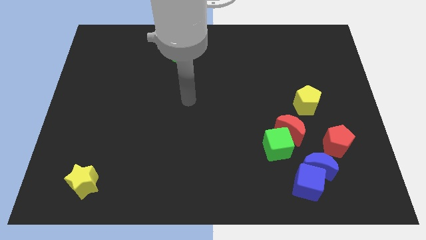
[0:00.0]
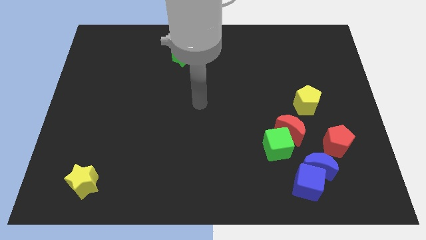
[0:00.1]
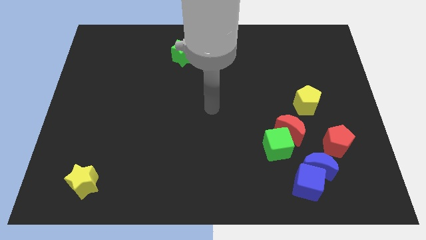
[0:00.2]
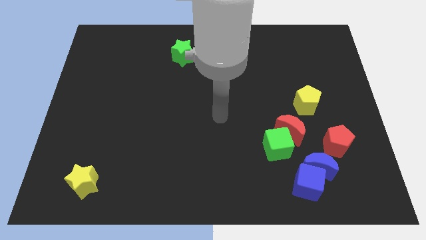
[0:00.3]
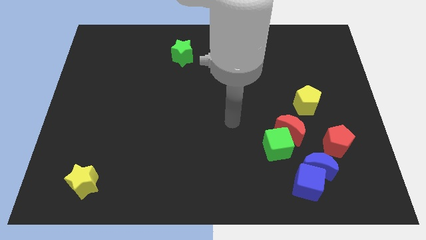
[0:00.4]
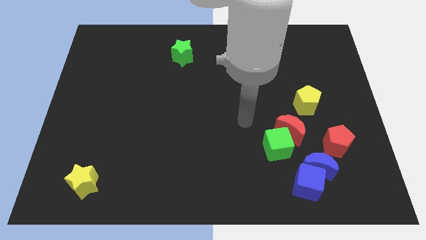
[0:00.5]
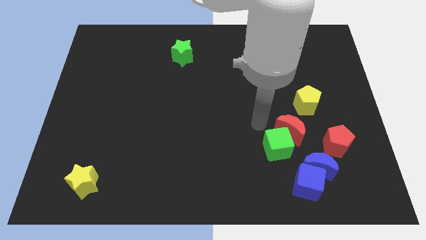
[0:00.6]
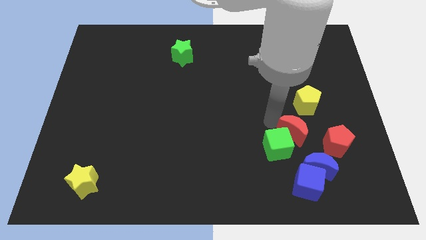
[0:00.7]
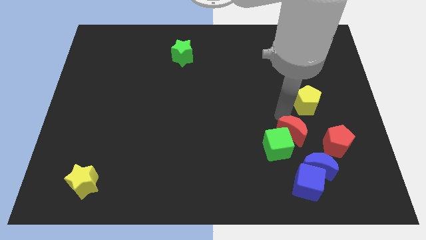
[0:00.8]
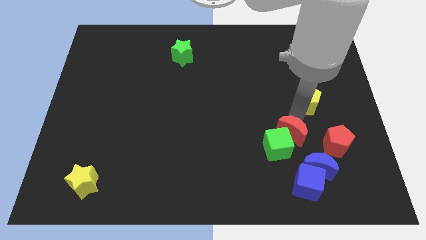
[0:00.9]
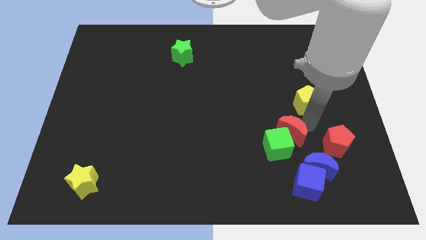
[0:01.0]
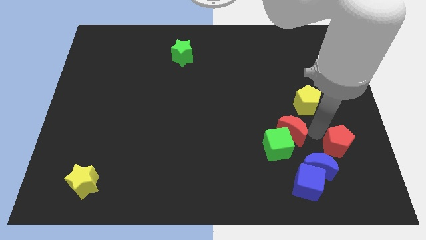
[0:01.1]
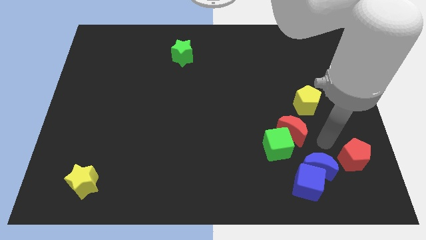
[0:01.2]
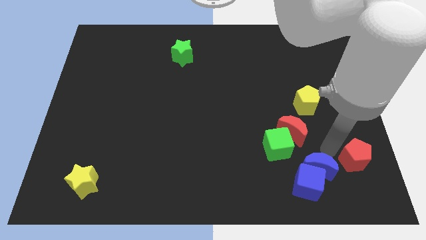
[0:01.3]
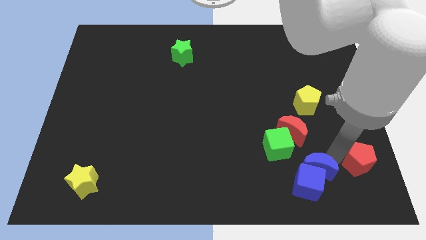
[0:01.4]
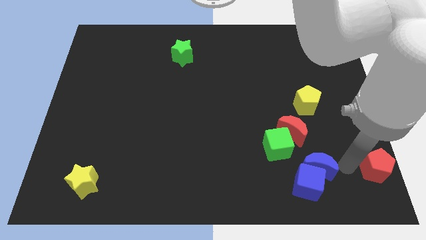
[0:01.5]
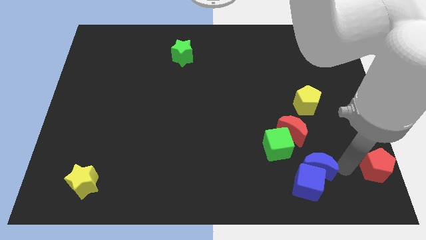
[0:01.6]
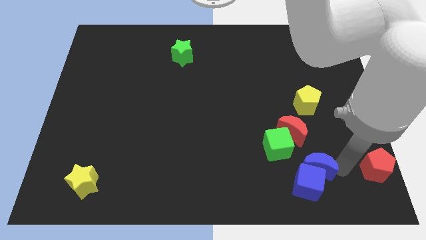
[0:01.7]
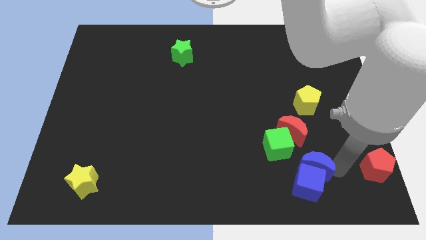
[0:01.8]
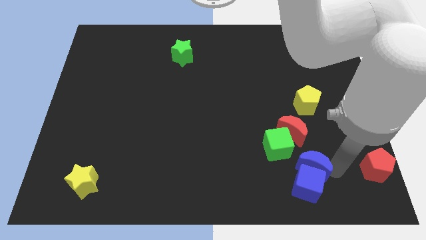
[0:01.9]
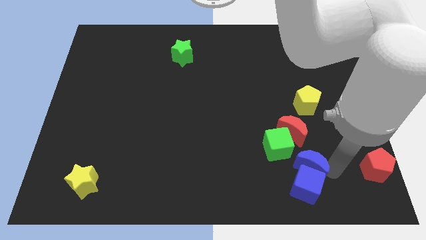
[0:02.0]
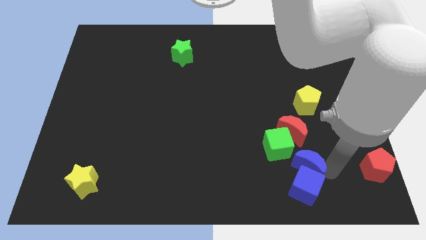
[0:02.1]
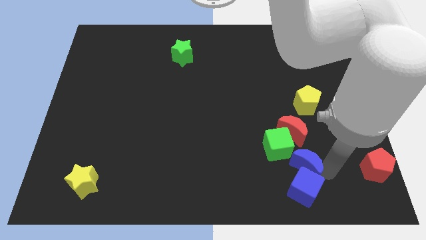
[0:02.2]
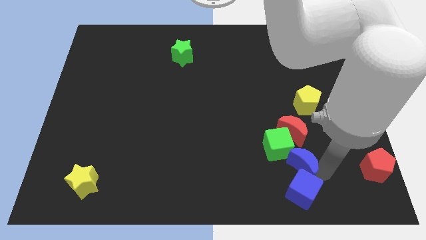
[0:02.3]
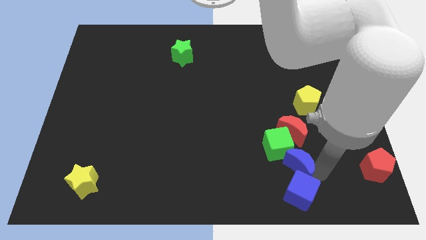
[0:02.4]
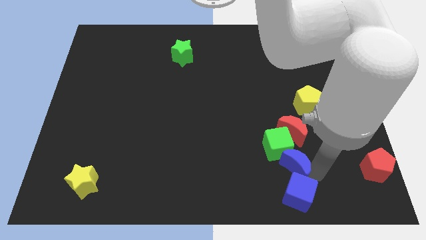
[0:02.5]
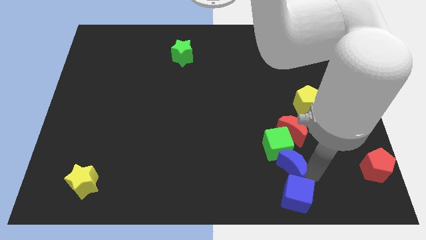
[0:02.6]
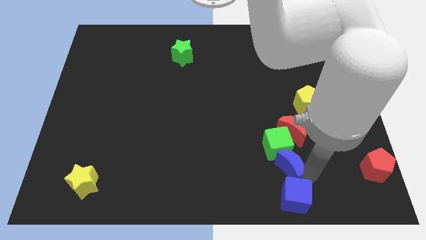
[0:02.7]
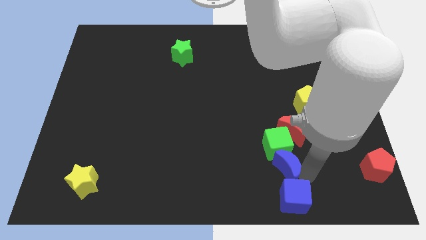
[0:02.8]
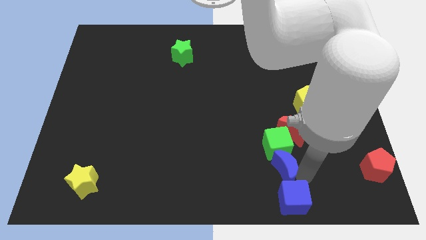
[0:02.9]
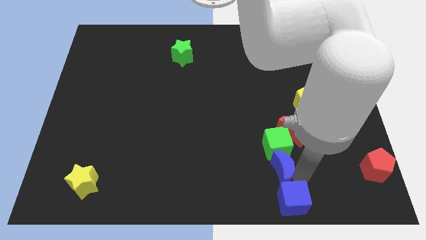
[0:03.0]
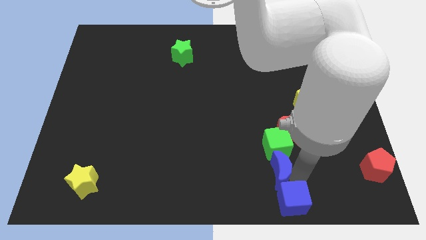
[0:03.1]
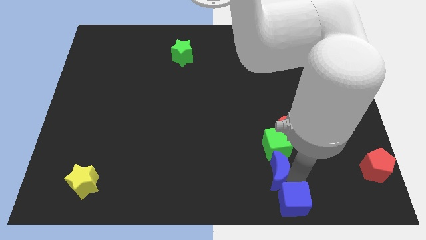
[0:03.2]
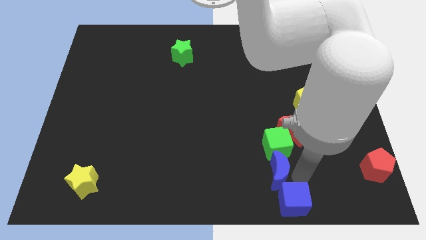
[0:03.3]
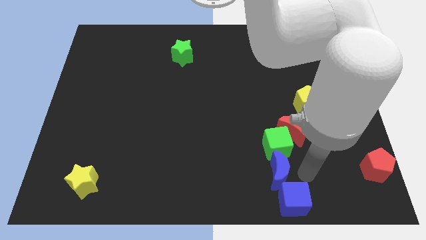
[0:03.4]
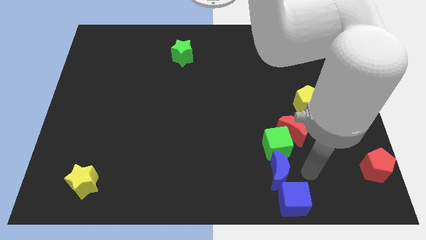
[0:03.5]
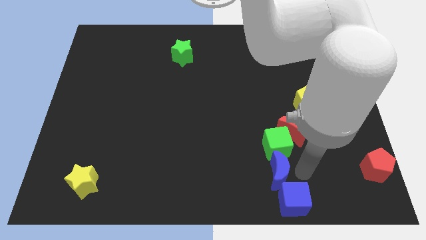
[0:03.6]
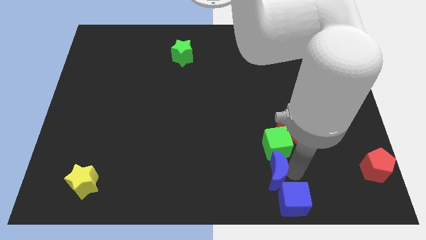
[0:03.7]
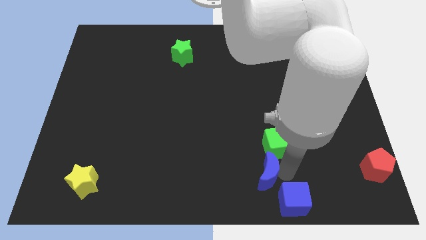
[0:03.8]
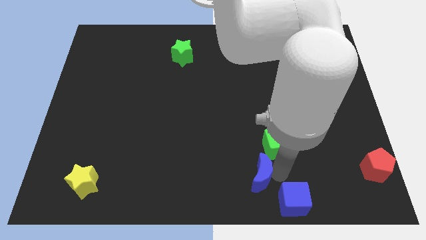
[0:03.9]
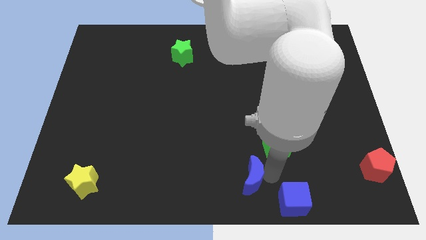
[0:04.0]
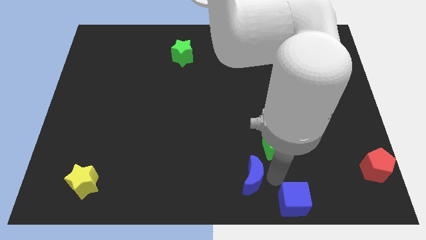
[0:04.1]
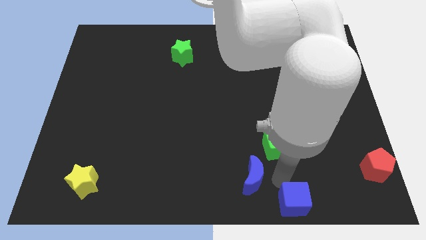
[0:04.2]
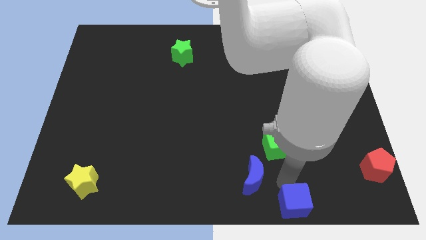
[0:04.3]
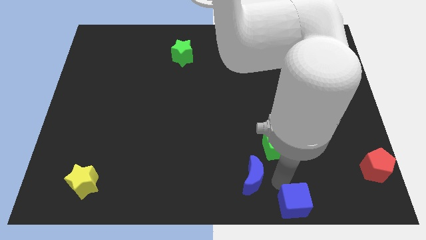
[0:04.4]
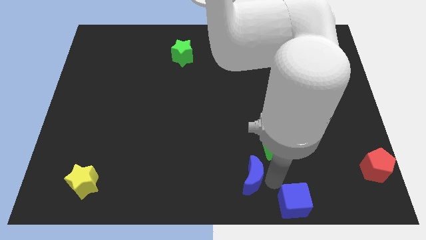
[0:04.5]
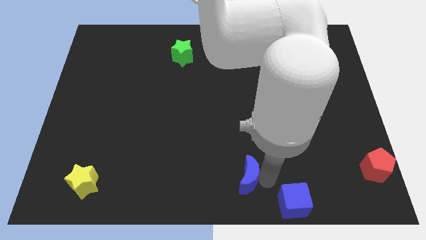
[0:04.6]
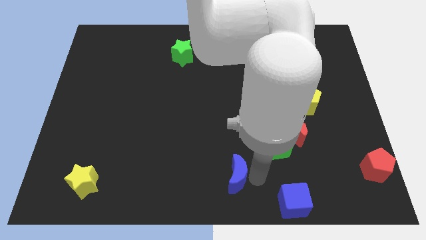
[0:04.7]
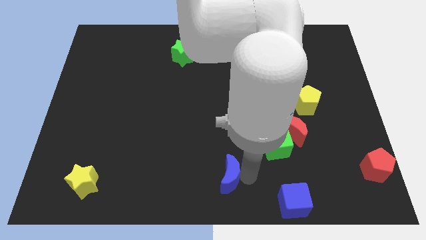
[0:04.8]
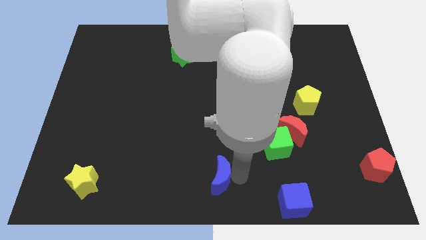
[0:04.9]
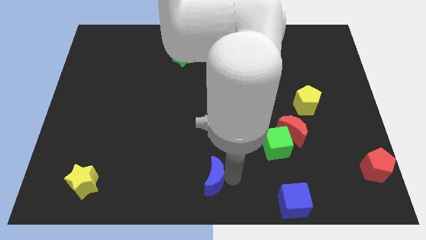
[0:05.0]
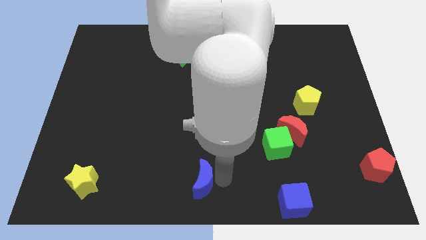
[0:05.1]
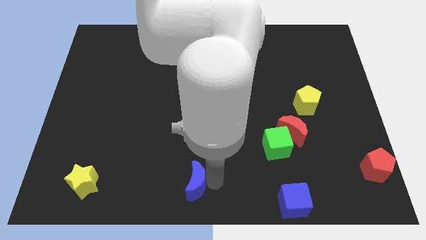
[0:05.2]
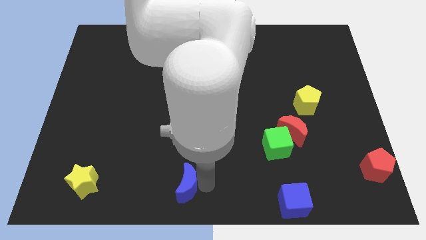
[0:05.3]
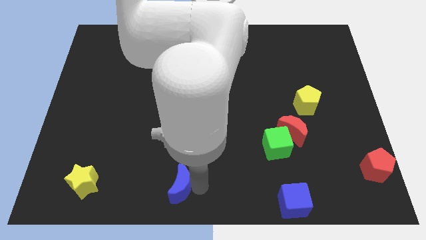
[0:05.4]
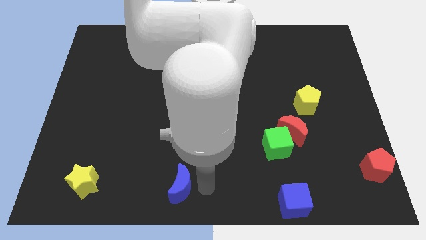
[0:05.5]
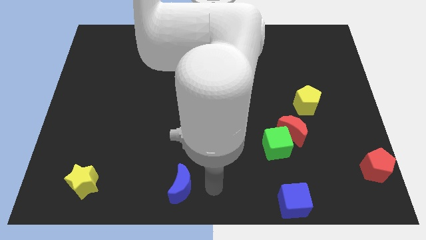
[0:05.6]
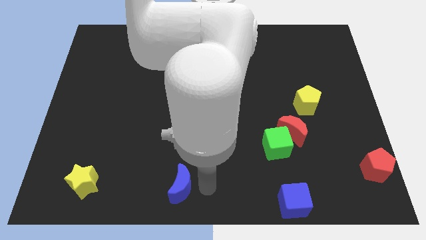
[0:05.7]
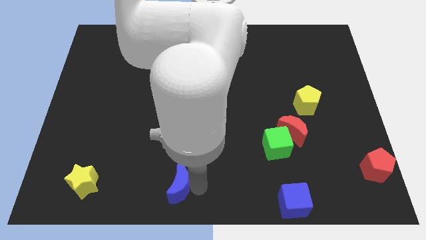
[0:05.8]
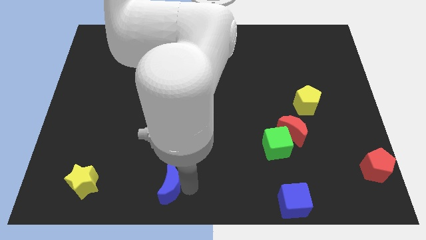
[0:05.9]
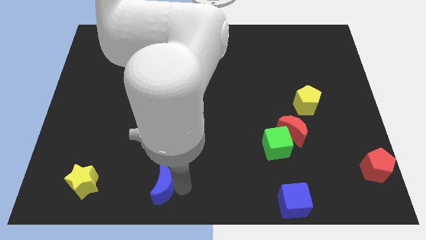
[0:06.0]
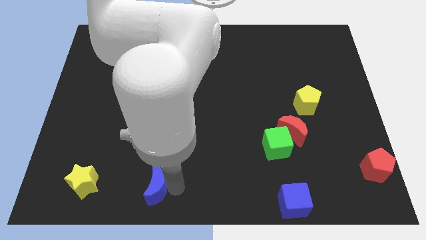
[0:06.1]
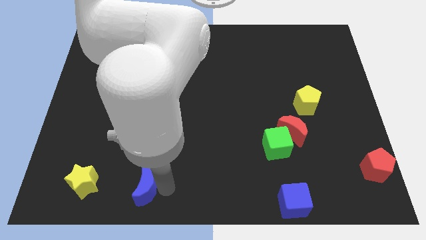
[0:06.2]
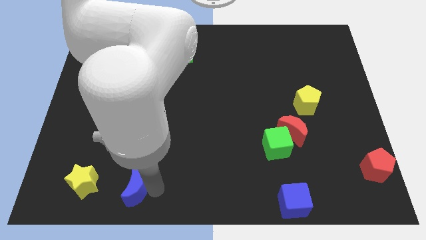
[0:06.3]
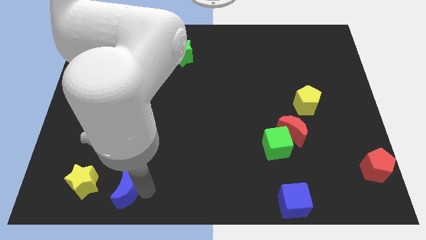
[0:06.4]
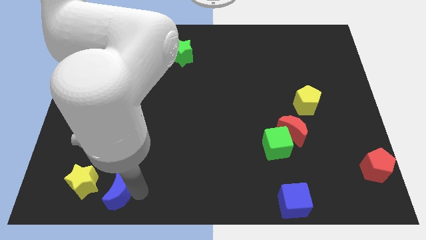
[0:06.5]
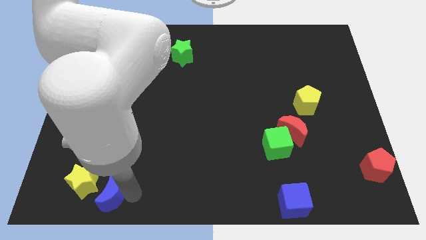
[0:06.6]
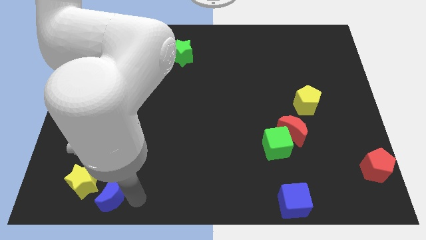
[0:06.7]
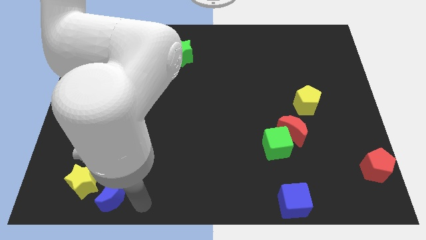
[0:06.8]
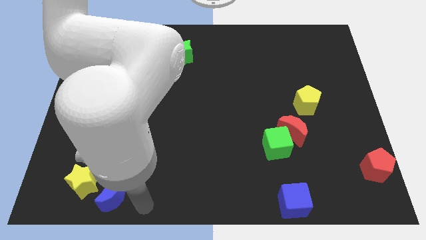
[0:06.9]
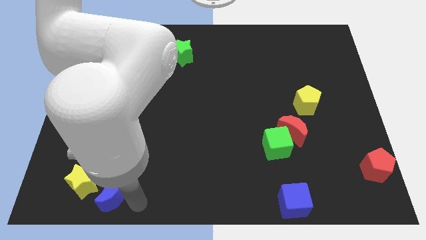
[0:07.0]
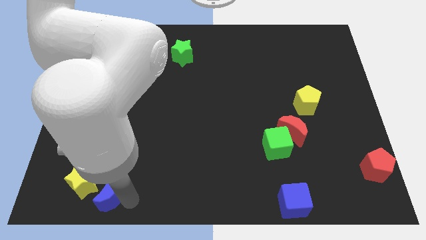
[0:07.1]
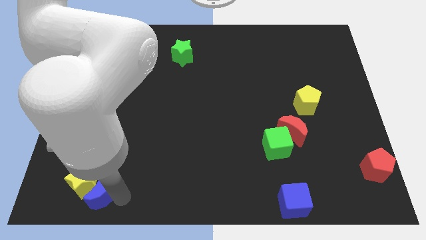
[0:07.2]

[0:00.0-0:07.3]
put the blue moon towards the yellow star
